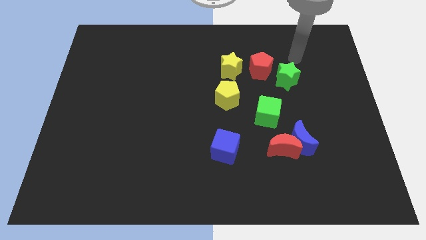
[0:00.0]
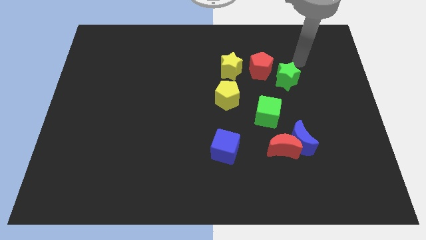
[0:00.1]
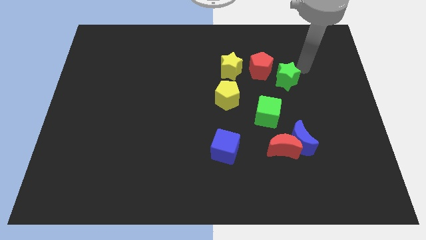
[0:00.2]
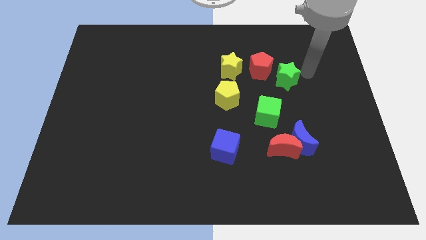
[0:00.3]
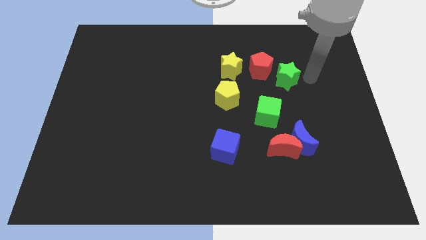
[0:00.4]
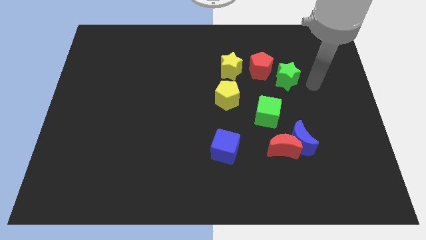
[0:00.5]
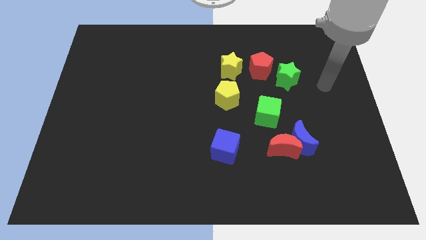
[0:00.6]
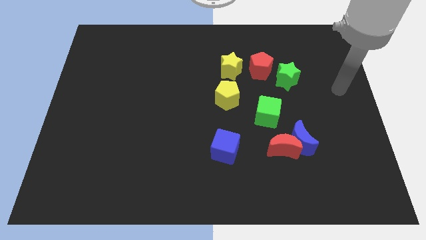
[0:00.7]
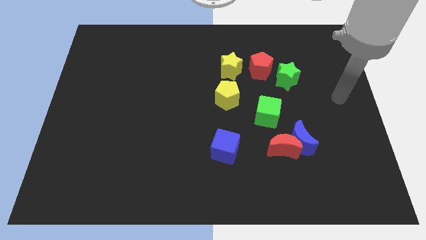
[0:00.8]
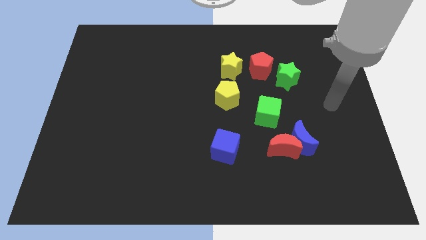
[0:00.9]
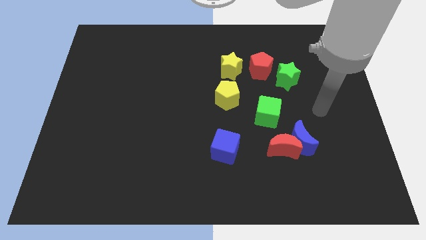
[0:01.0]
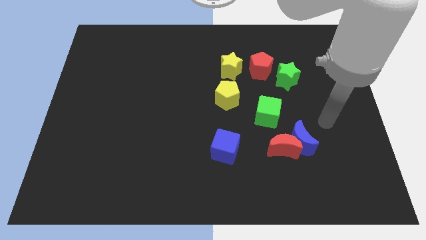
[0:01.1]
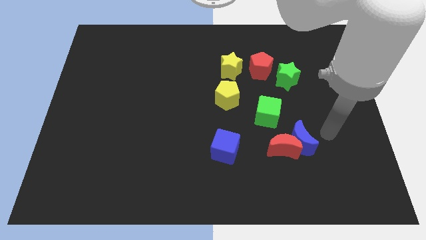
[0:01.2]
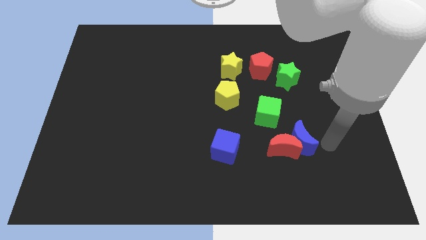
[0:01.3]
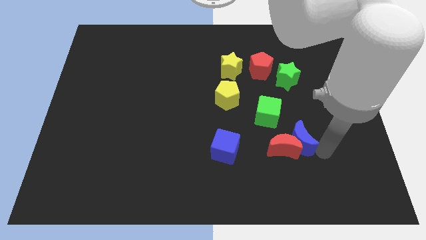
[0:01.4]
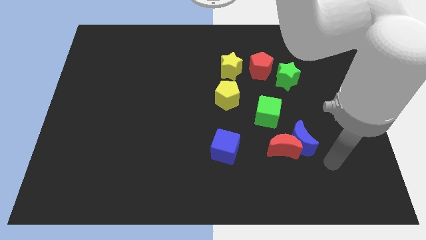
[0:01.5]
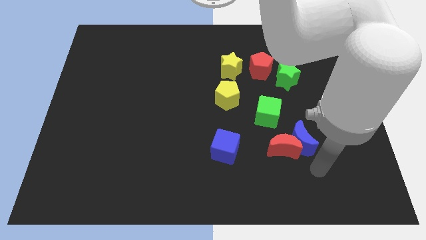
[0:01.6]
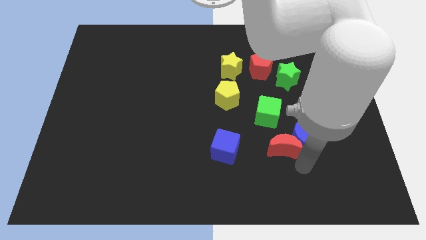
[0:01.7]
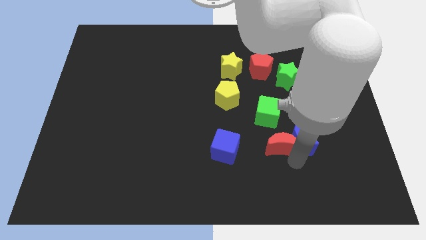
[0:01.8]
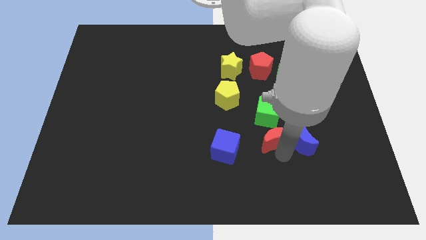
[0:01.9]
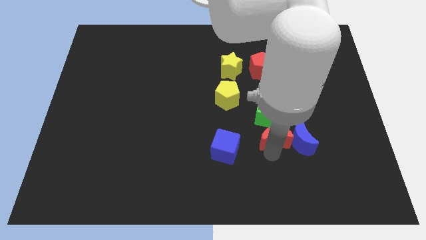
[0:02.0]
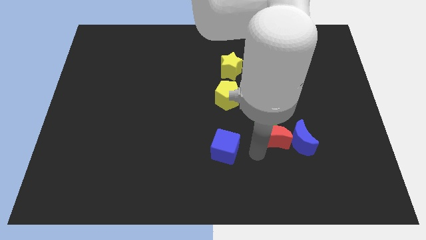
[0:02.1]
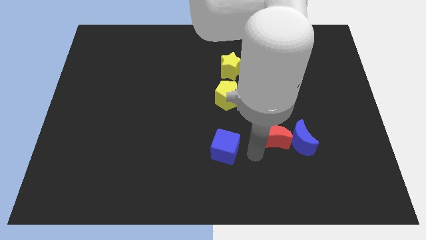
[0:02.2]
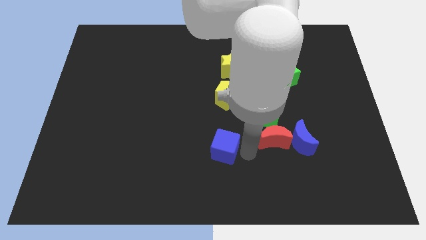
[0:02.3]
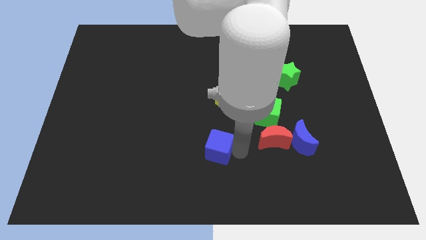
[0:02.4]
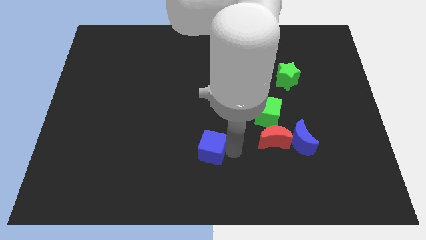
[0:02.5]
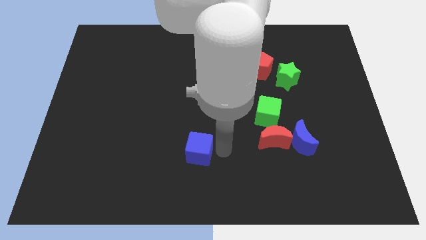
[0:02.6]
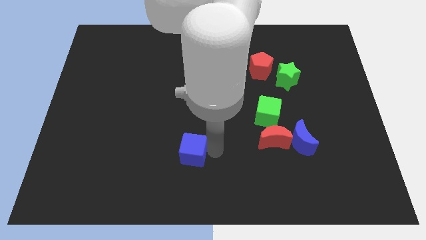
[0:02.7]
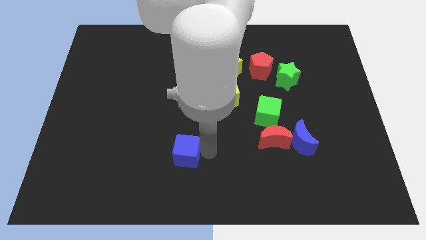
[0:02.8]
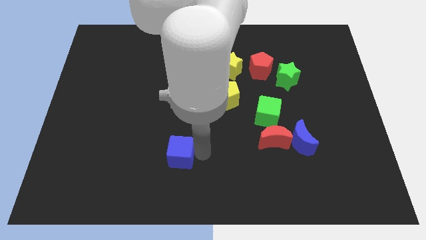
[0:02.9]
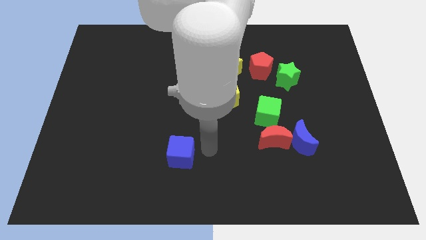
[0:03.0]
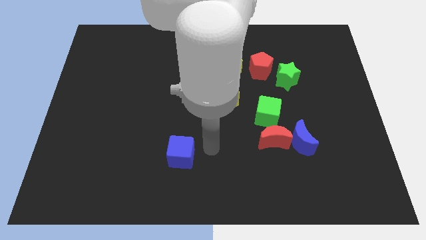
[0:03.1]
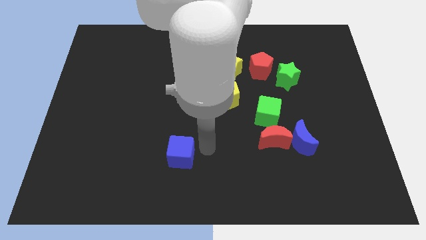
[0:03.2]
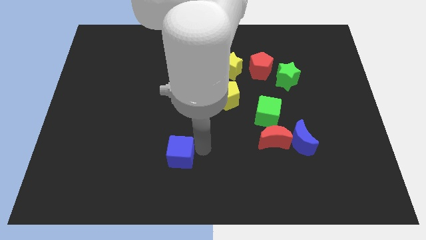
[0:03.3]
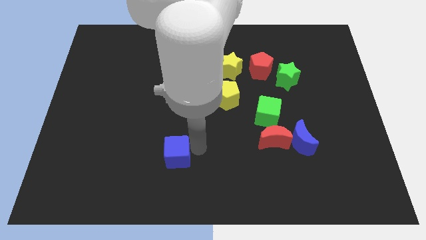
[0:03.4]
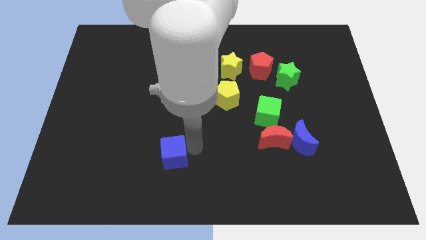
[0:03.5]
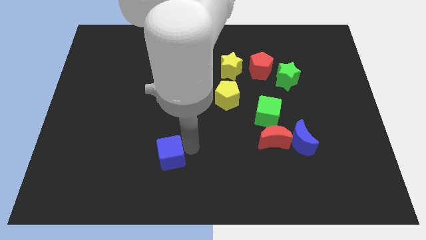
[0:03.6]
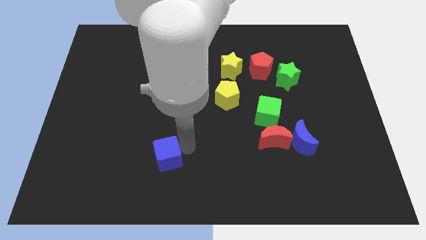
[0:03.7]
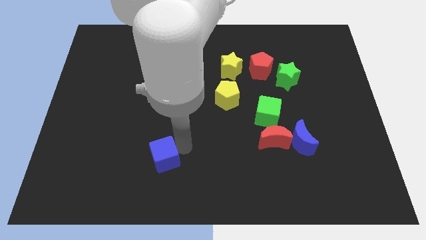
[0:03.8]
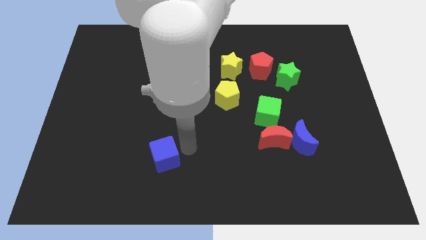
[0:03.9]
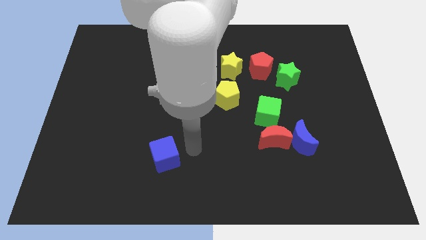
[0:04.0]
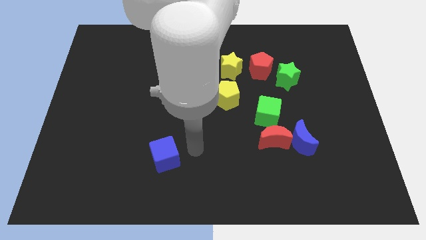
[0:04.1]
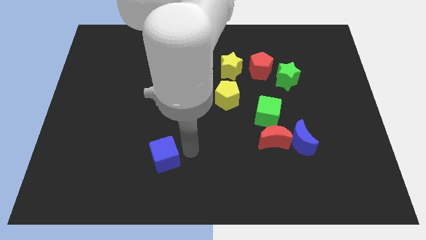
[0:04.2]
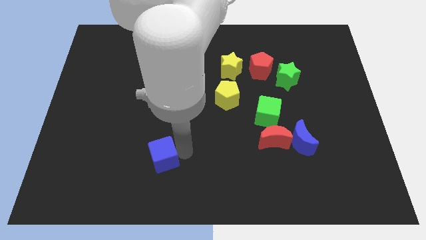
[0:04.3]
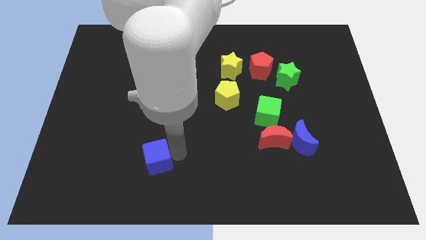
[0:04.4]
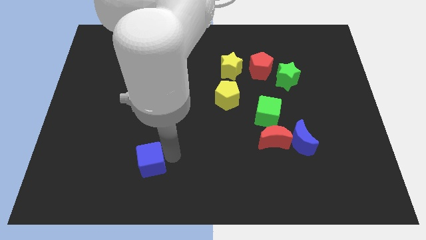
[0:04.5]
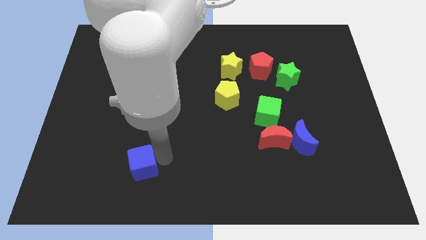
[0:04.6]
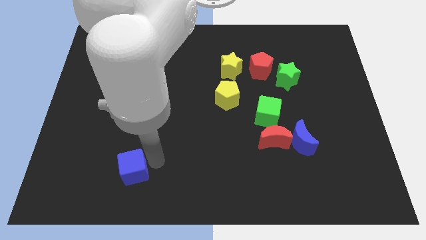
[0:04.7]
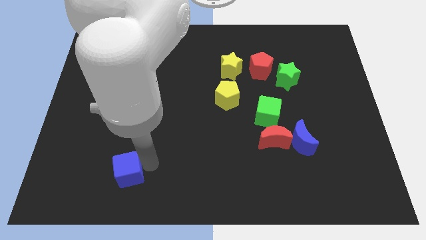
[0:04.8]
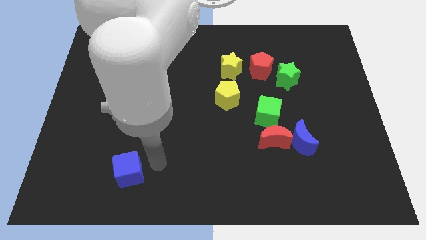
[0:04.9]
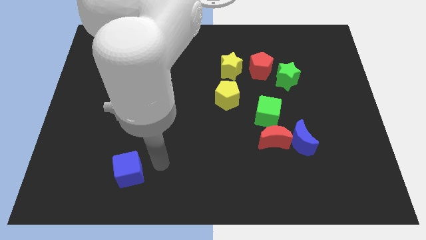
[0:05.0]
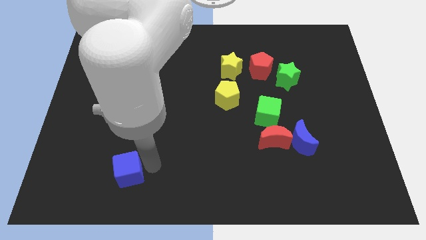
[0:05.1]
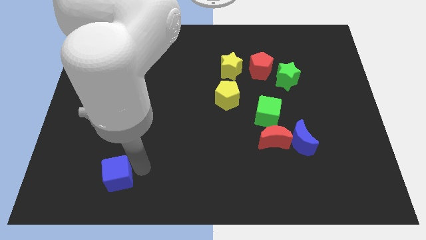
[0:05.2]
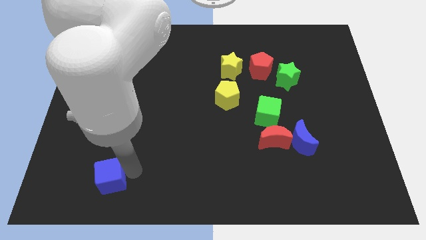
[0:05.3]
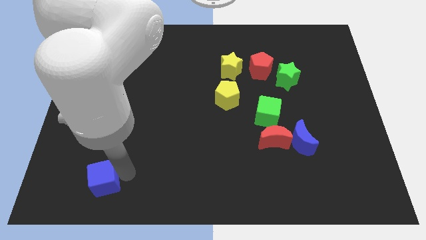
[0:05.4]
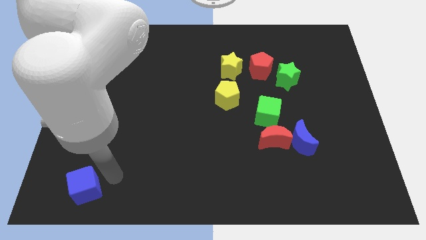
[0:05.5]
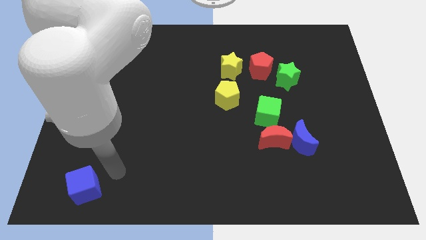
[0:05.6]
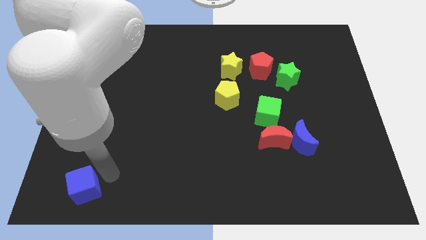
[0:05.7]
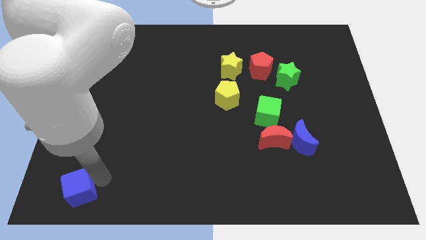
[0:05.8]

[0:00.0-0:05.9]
put the blue cube to the bottom left of the board
